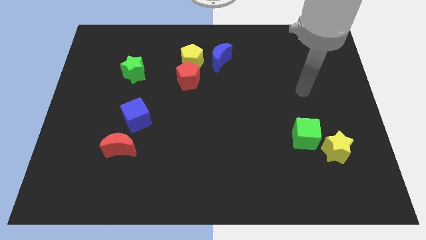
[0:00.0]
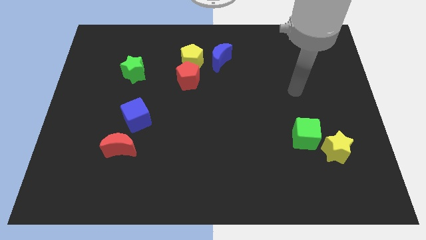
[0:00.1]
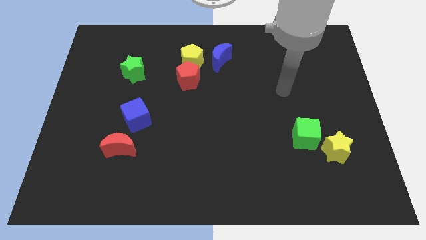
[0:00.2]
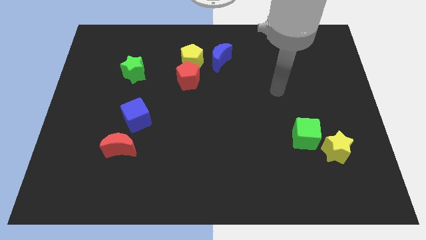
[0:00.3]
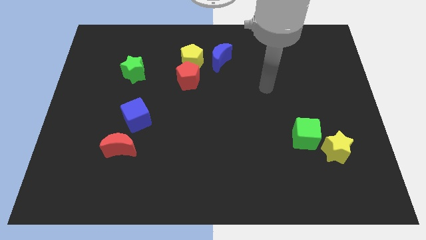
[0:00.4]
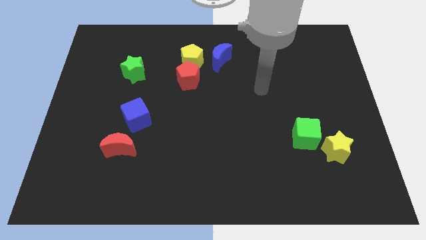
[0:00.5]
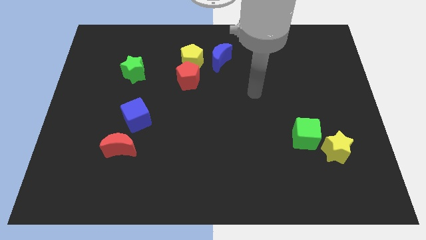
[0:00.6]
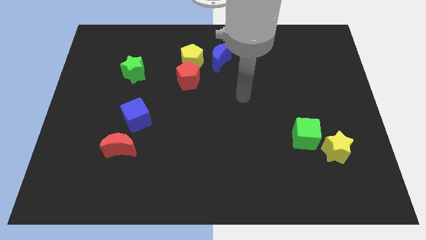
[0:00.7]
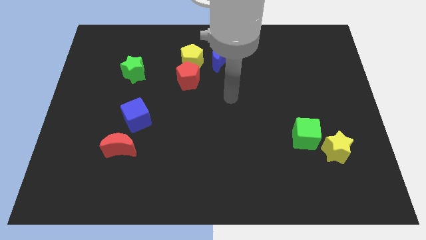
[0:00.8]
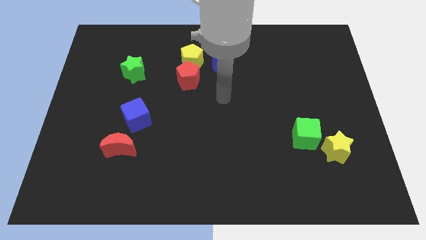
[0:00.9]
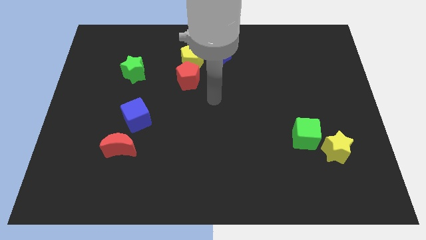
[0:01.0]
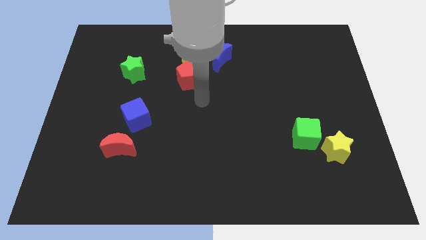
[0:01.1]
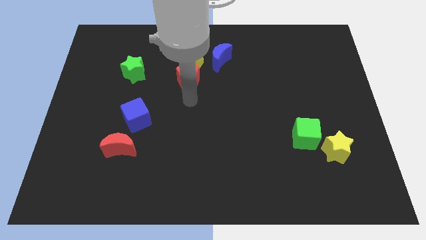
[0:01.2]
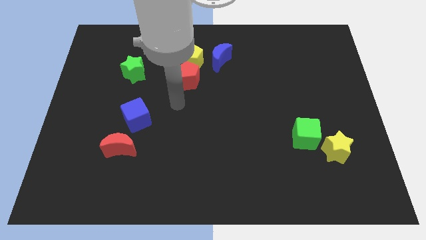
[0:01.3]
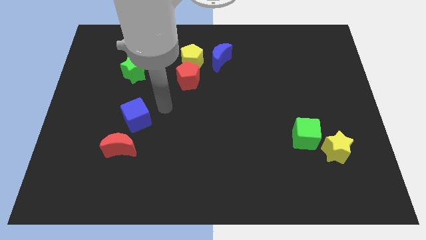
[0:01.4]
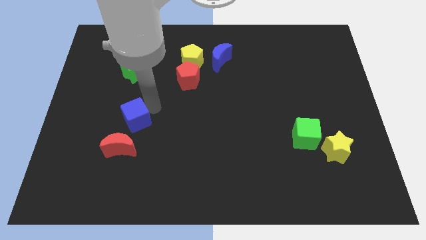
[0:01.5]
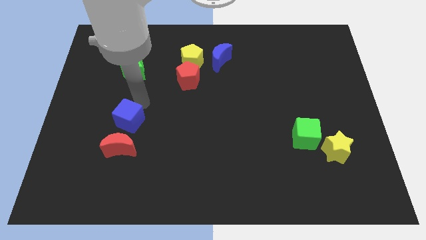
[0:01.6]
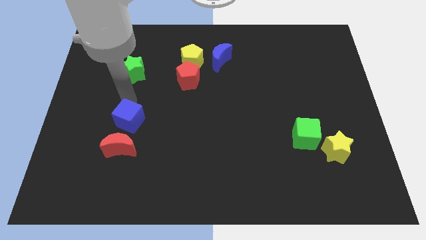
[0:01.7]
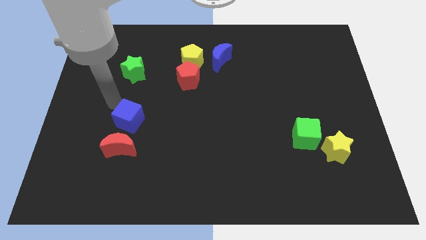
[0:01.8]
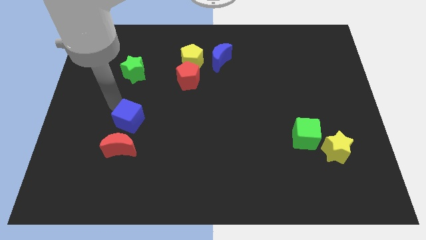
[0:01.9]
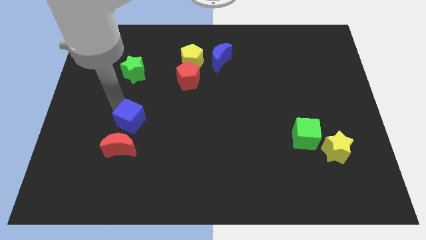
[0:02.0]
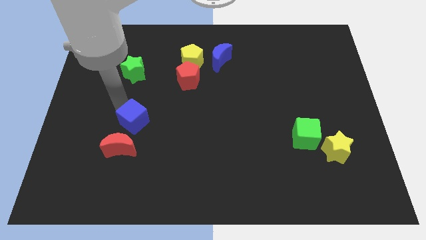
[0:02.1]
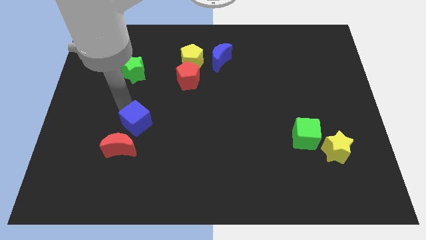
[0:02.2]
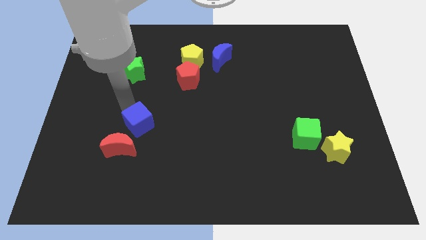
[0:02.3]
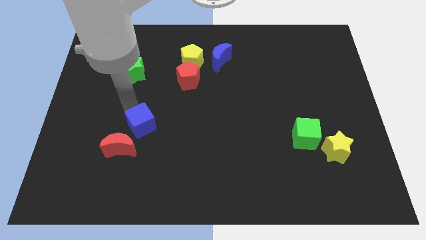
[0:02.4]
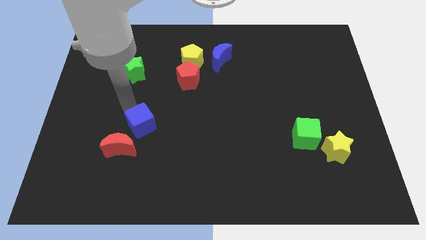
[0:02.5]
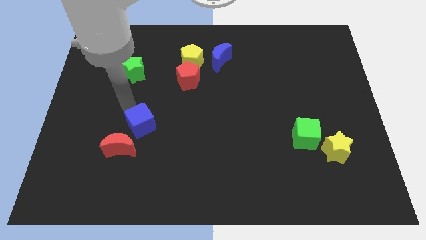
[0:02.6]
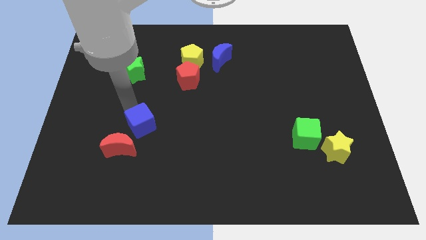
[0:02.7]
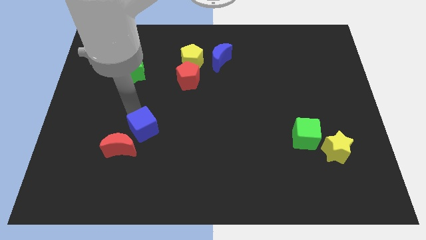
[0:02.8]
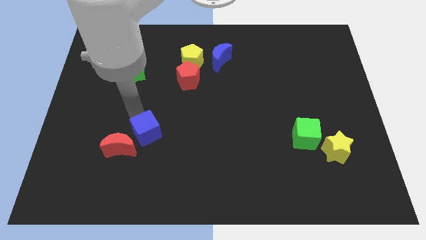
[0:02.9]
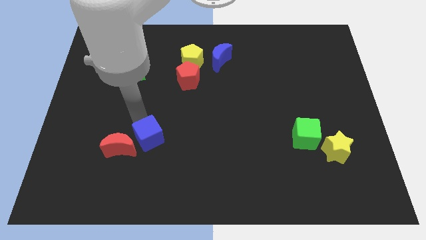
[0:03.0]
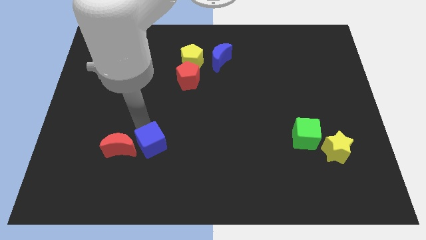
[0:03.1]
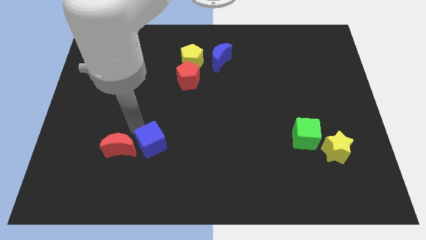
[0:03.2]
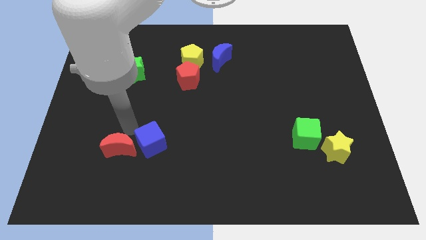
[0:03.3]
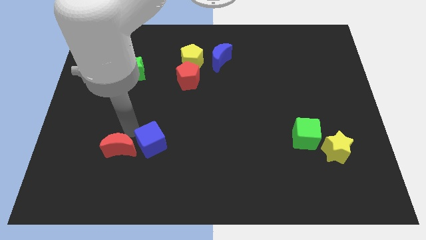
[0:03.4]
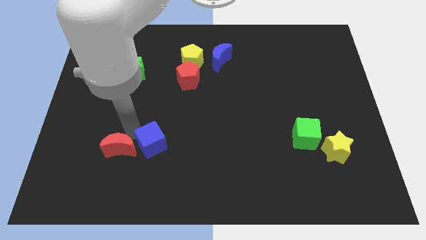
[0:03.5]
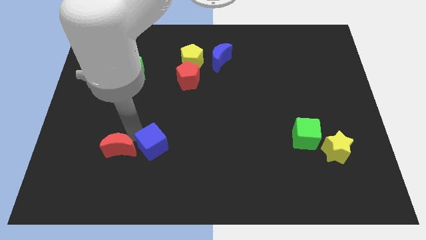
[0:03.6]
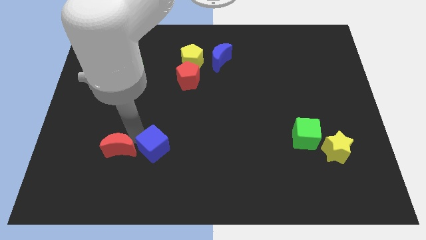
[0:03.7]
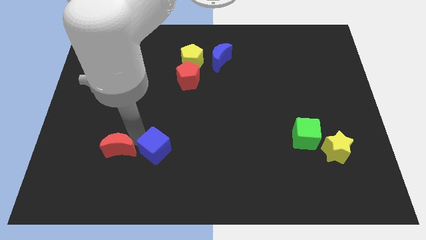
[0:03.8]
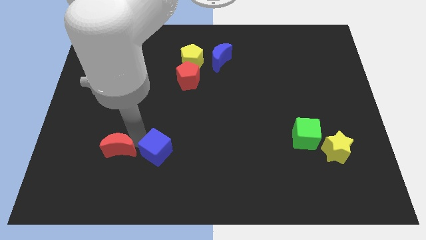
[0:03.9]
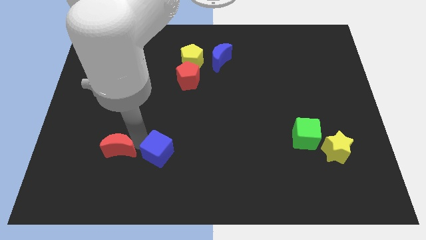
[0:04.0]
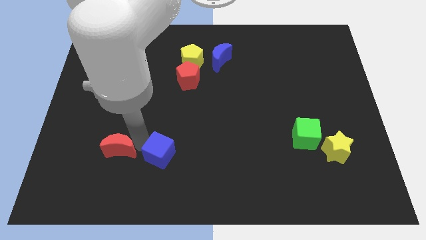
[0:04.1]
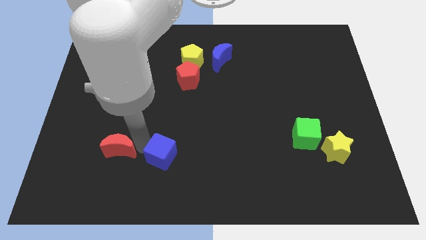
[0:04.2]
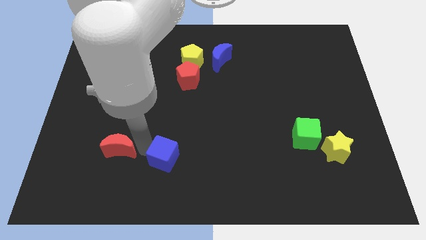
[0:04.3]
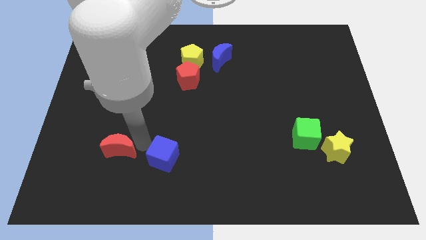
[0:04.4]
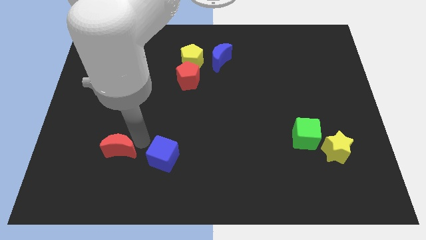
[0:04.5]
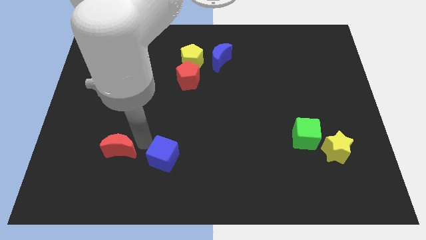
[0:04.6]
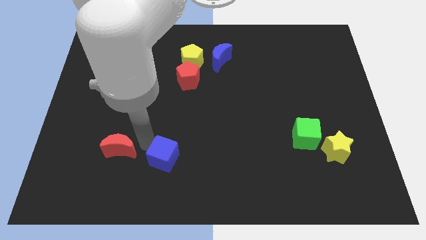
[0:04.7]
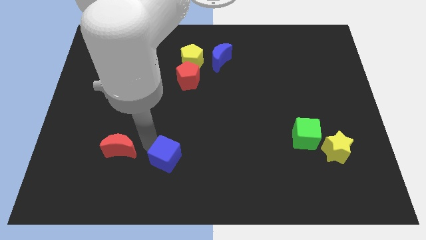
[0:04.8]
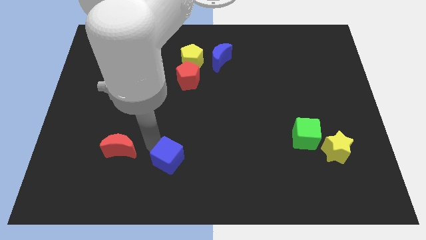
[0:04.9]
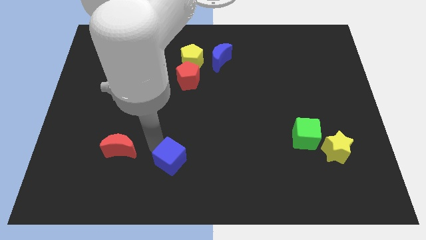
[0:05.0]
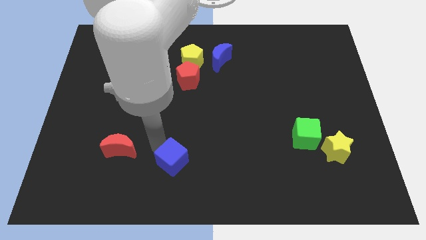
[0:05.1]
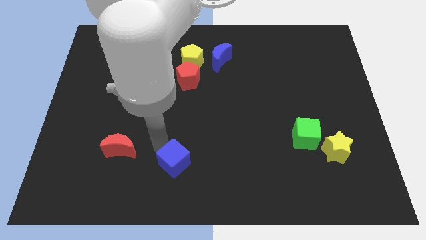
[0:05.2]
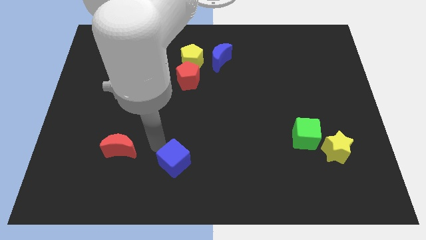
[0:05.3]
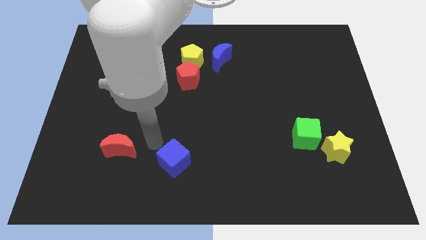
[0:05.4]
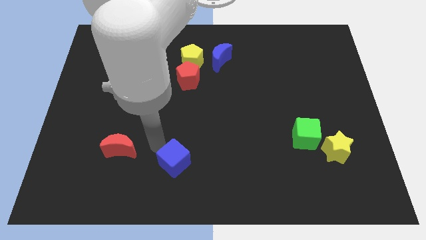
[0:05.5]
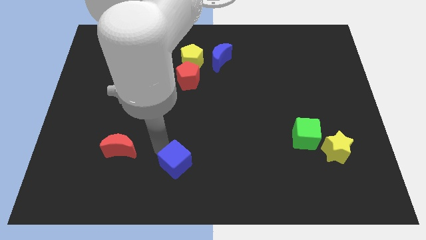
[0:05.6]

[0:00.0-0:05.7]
put the blue cube to the bottom side

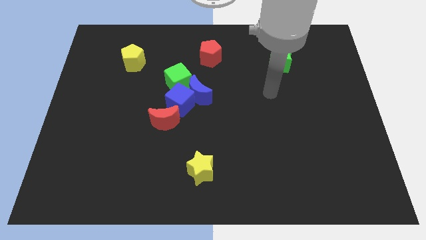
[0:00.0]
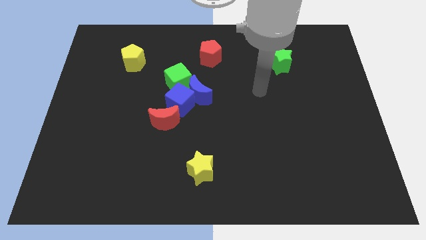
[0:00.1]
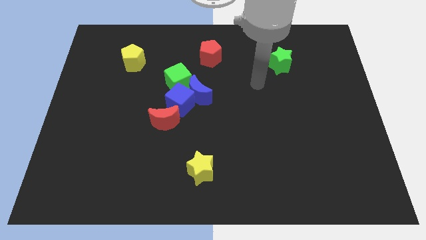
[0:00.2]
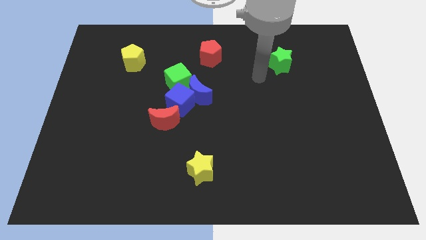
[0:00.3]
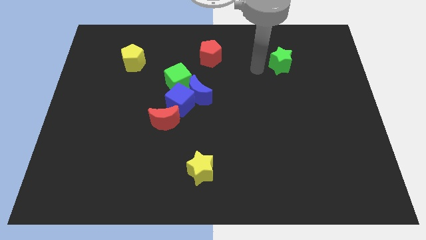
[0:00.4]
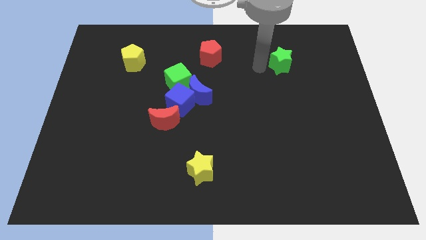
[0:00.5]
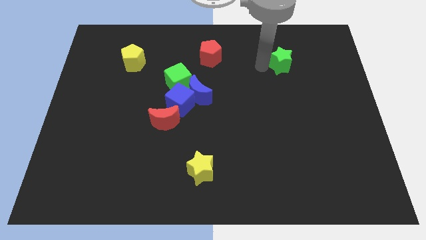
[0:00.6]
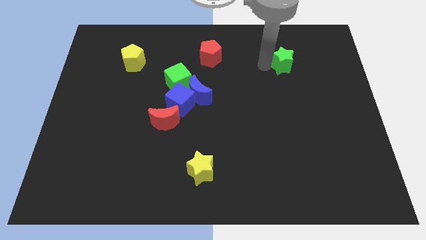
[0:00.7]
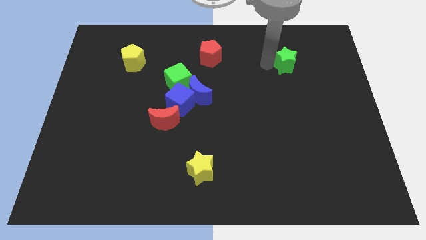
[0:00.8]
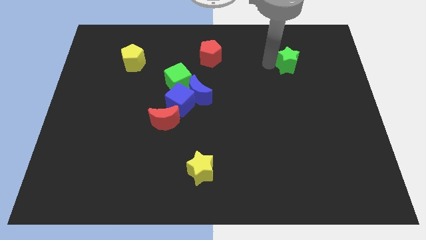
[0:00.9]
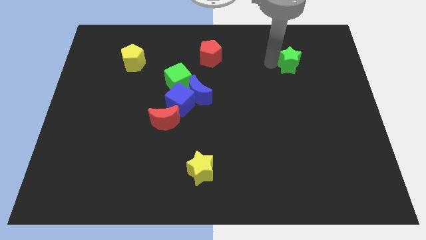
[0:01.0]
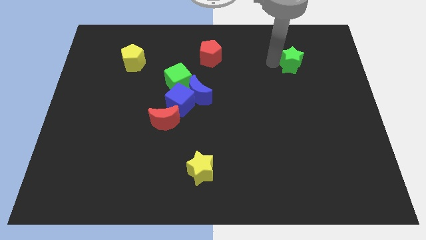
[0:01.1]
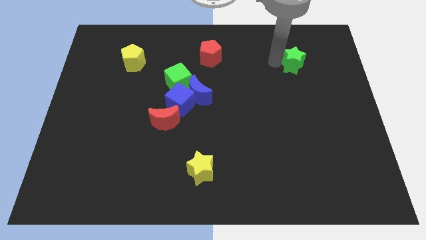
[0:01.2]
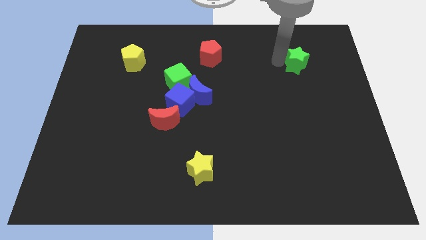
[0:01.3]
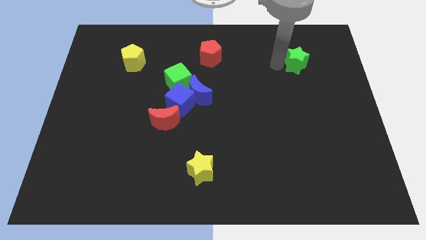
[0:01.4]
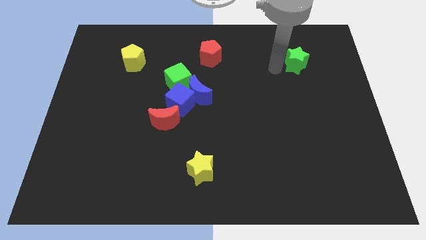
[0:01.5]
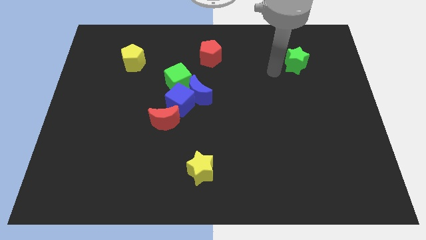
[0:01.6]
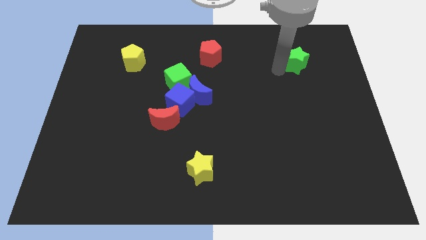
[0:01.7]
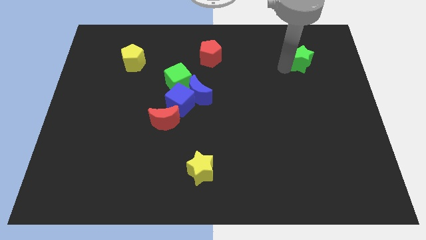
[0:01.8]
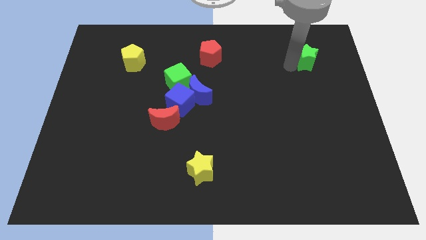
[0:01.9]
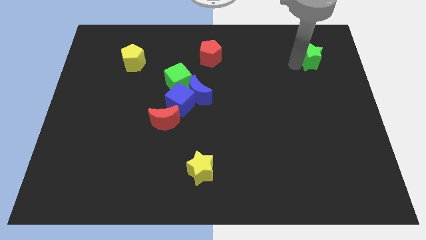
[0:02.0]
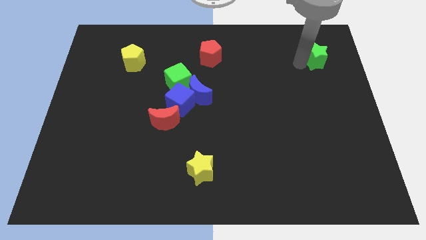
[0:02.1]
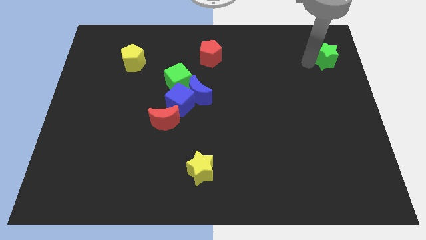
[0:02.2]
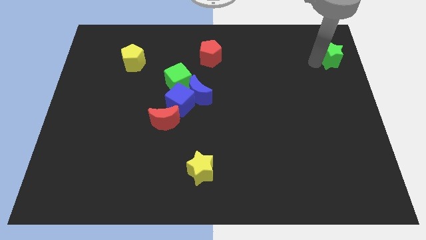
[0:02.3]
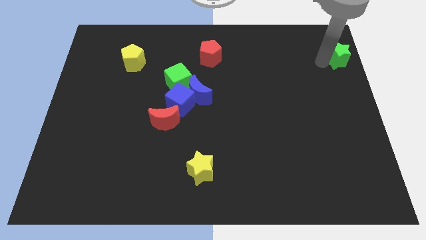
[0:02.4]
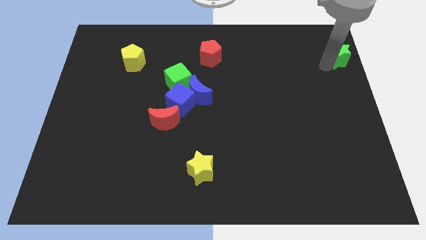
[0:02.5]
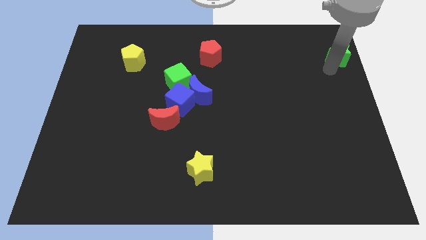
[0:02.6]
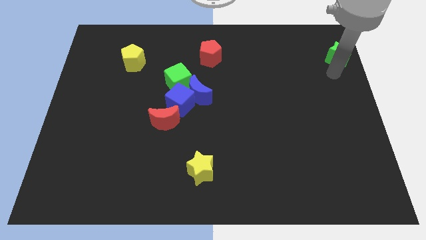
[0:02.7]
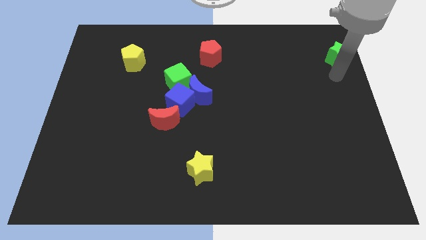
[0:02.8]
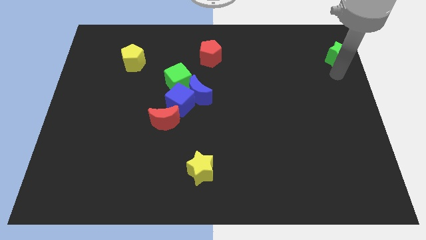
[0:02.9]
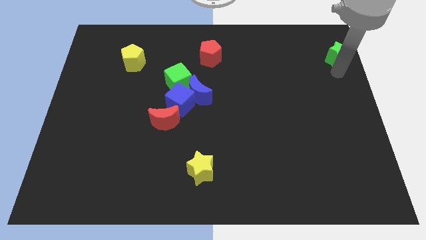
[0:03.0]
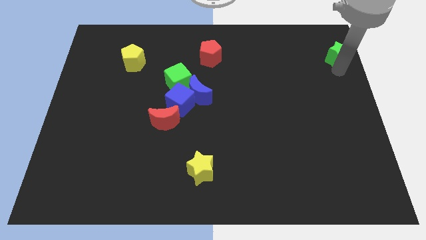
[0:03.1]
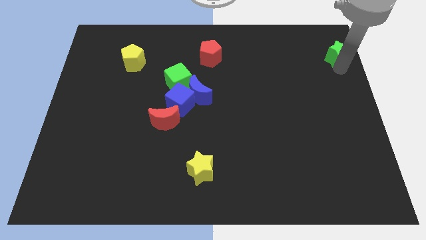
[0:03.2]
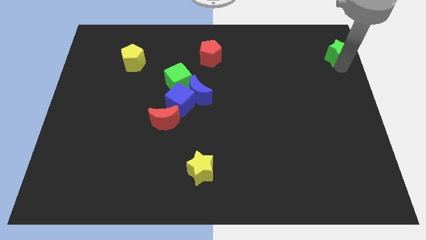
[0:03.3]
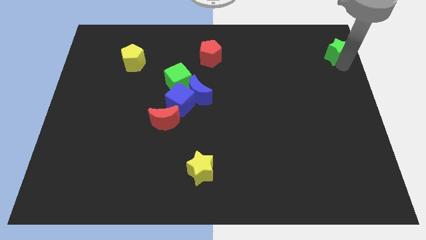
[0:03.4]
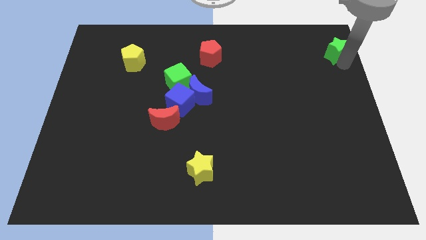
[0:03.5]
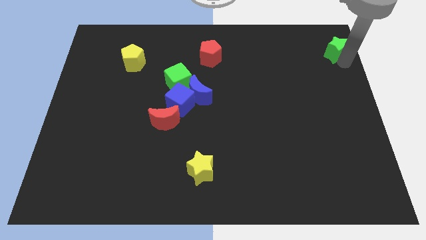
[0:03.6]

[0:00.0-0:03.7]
push the green star to the upper right corner
